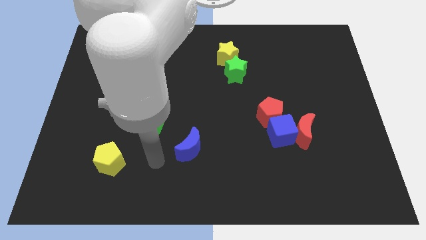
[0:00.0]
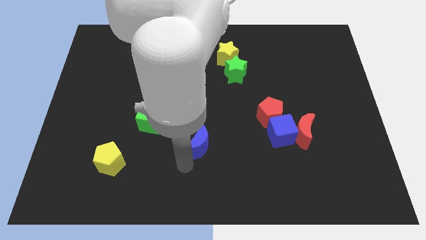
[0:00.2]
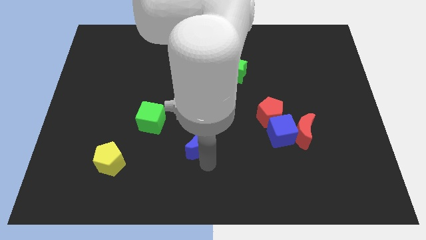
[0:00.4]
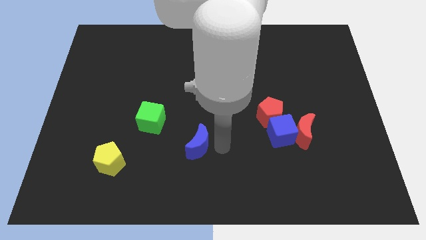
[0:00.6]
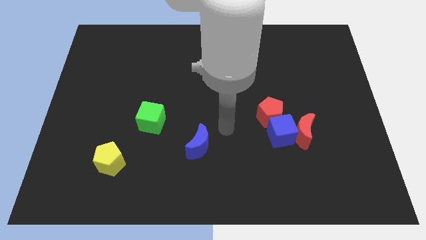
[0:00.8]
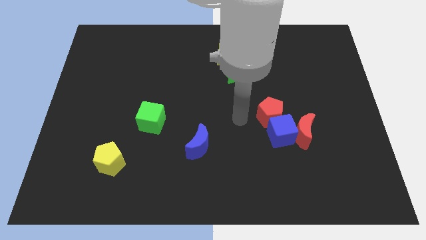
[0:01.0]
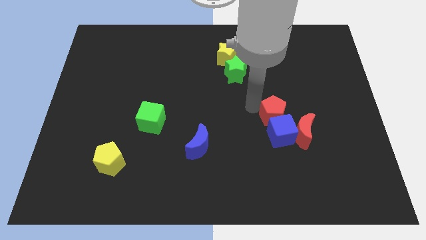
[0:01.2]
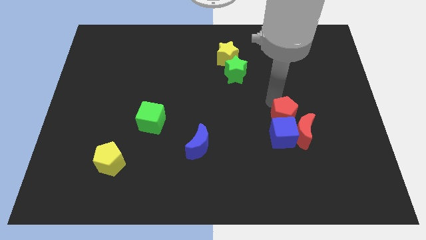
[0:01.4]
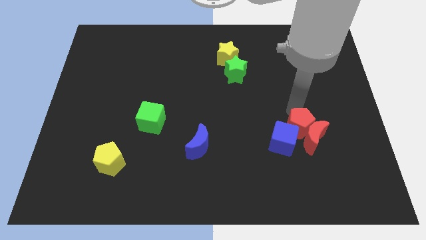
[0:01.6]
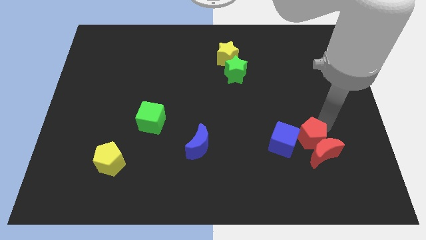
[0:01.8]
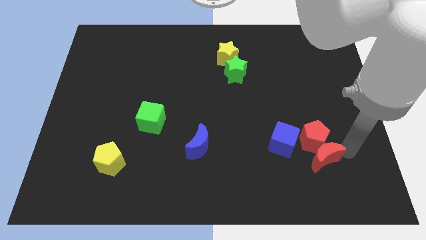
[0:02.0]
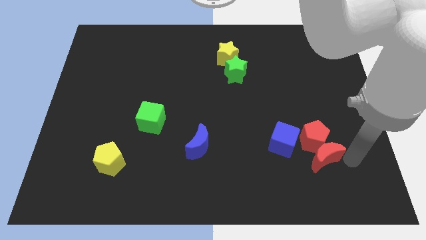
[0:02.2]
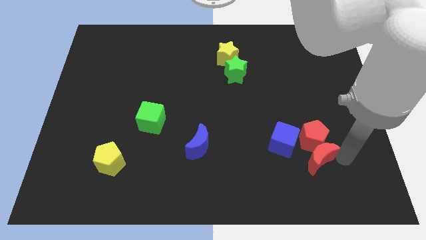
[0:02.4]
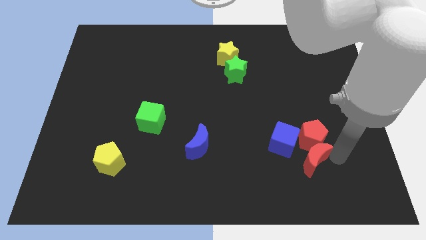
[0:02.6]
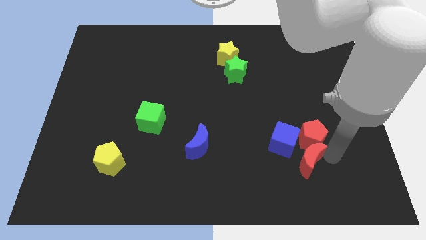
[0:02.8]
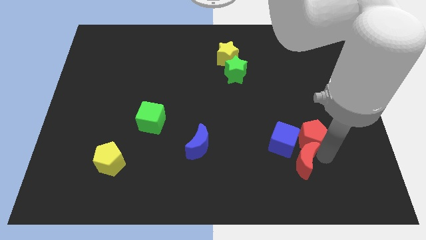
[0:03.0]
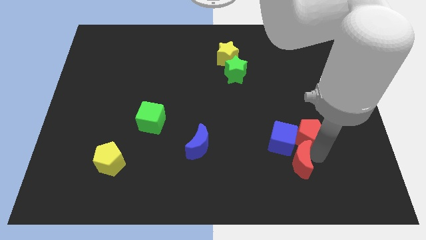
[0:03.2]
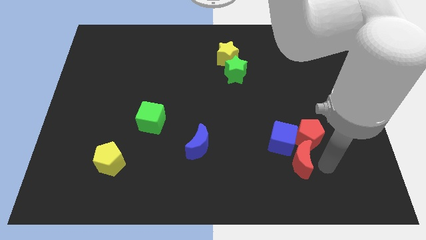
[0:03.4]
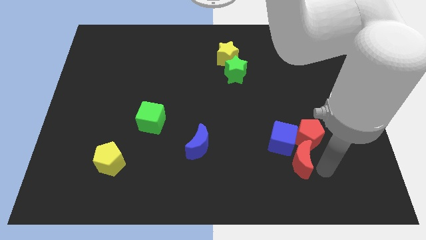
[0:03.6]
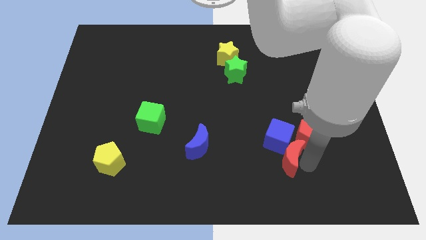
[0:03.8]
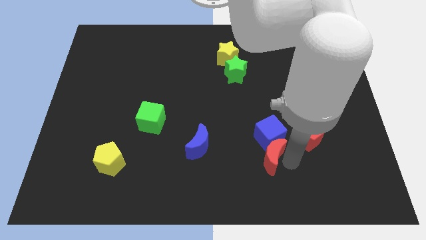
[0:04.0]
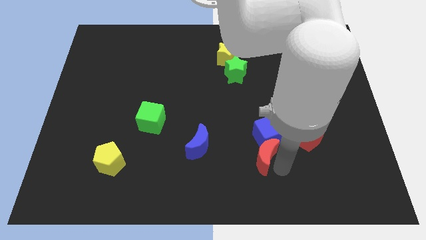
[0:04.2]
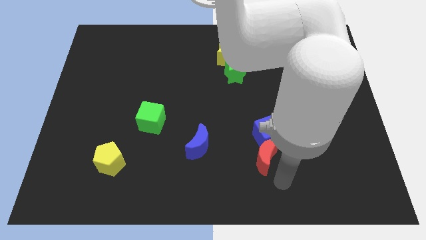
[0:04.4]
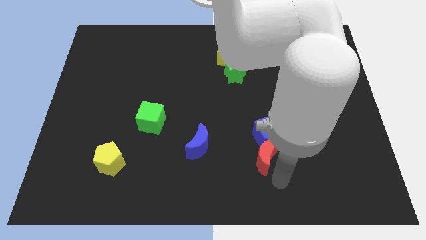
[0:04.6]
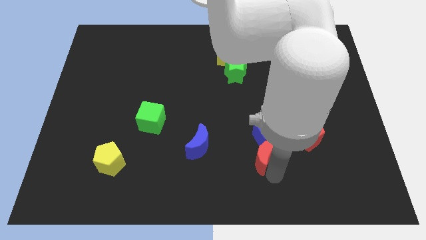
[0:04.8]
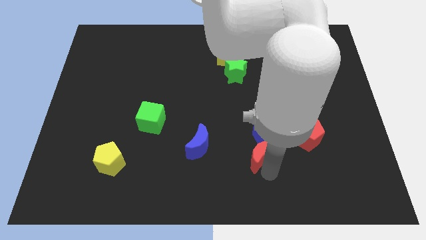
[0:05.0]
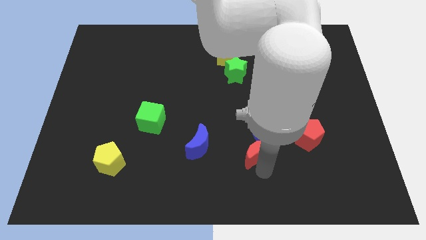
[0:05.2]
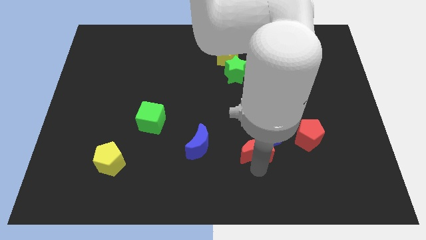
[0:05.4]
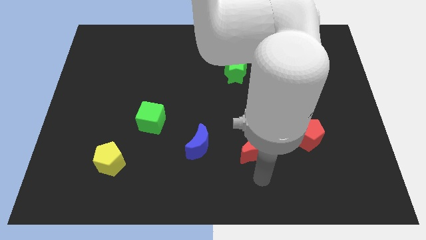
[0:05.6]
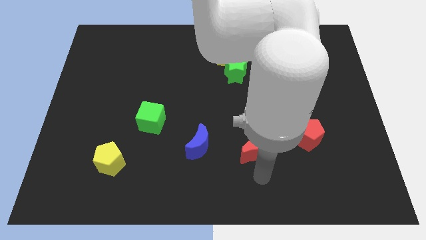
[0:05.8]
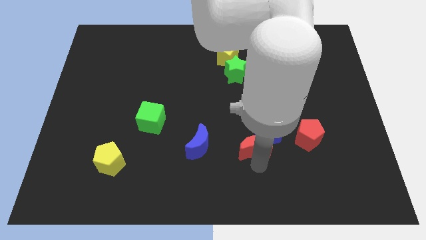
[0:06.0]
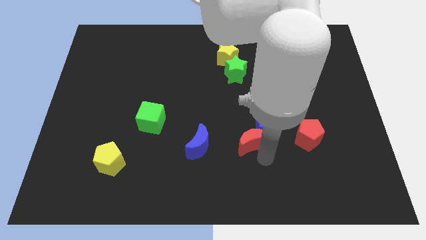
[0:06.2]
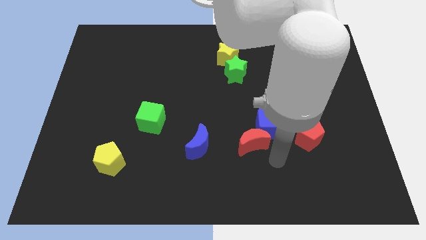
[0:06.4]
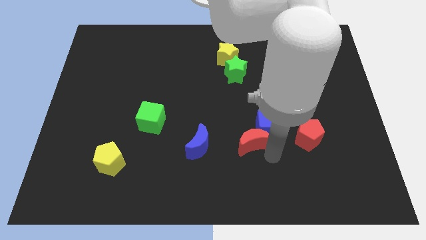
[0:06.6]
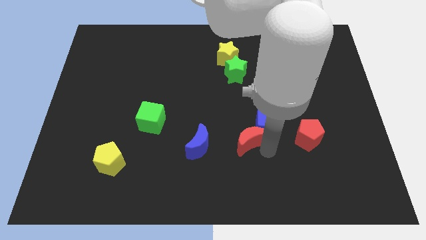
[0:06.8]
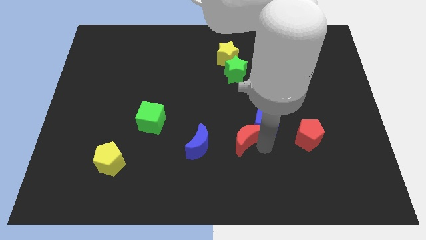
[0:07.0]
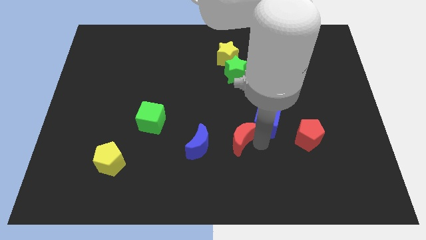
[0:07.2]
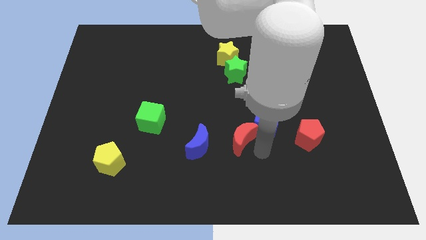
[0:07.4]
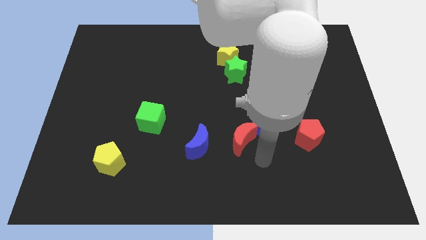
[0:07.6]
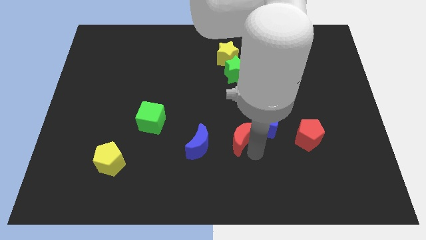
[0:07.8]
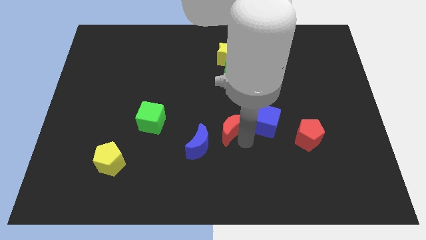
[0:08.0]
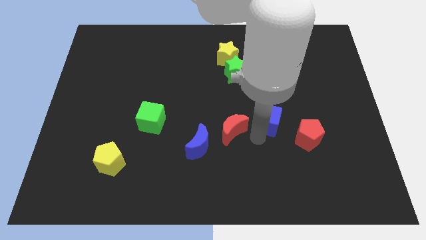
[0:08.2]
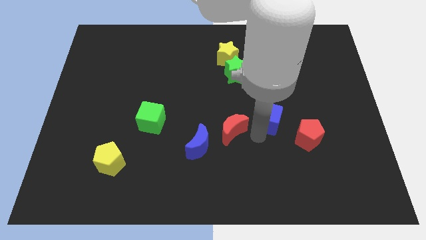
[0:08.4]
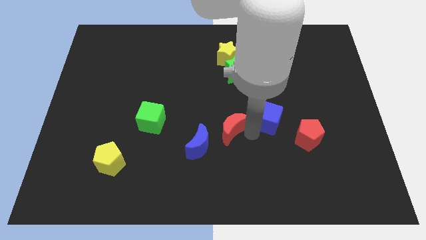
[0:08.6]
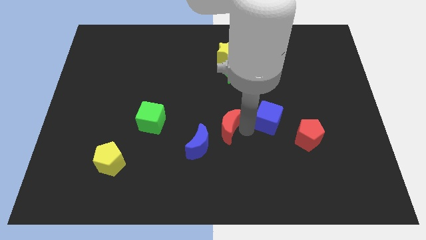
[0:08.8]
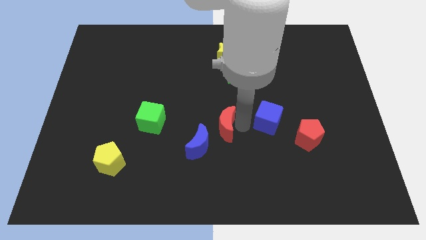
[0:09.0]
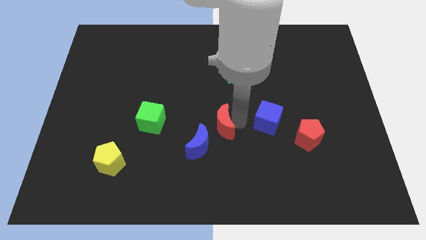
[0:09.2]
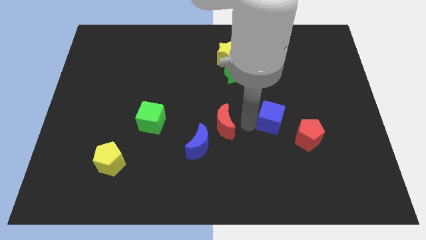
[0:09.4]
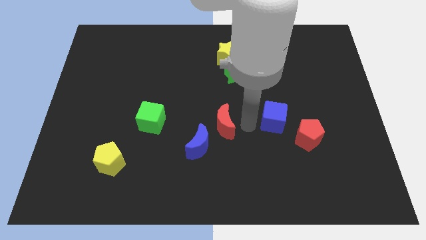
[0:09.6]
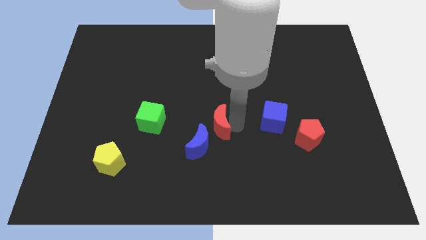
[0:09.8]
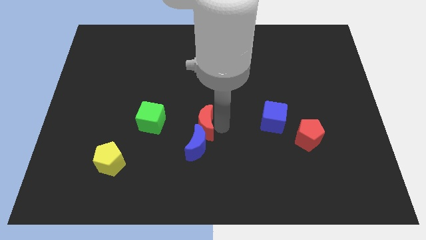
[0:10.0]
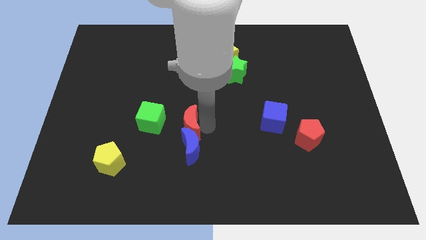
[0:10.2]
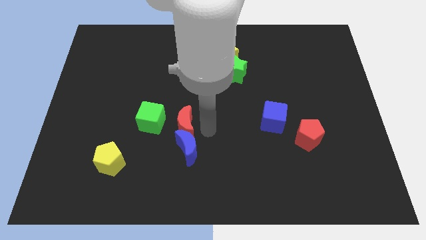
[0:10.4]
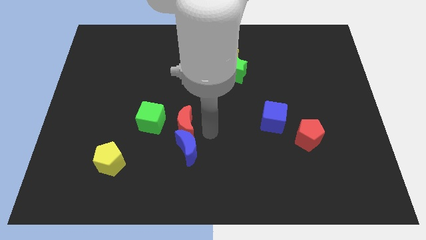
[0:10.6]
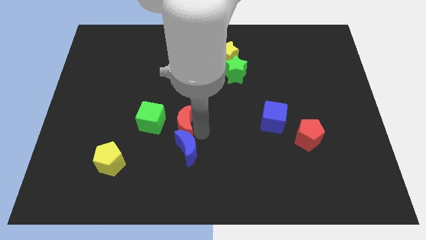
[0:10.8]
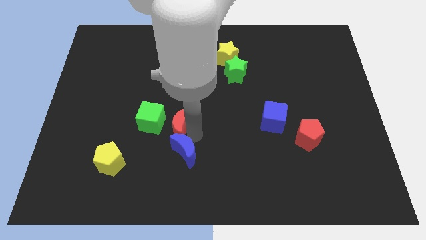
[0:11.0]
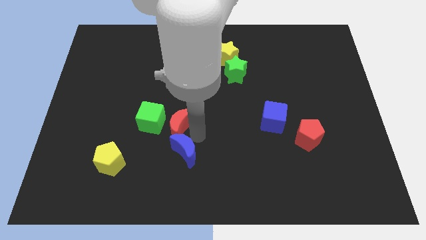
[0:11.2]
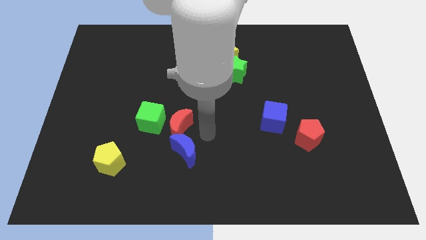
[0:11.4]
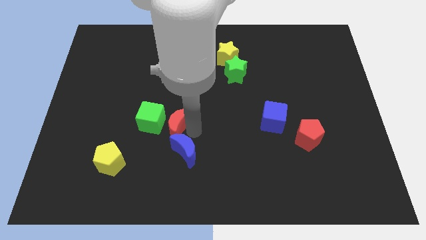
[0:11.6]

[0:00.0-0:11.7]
push the red moon towards the green cube

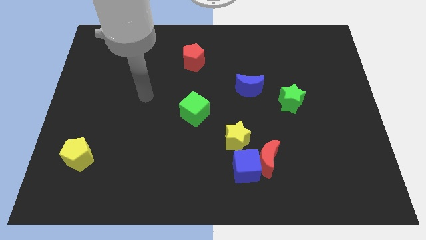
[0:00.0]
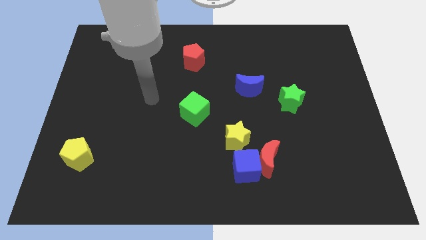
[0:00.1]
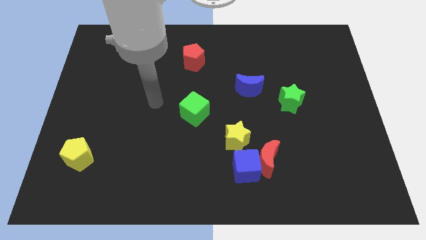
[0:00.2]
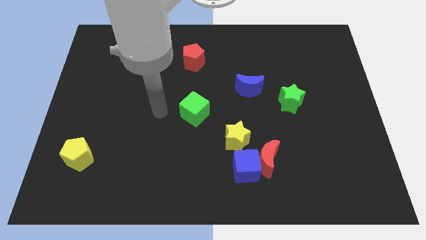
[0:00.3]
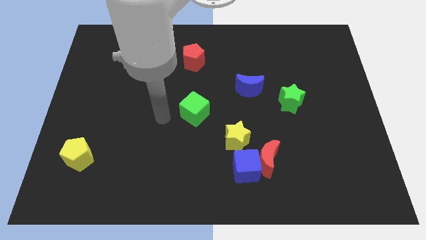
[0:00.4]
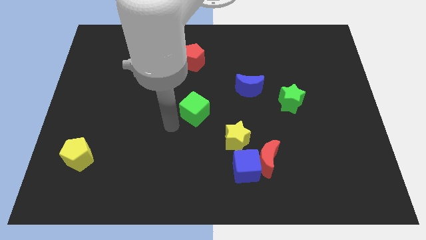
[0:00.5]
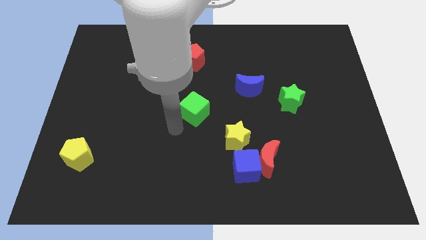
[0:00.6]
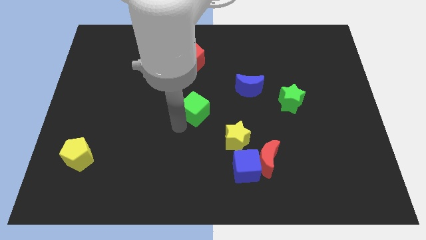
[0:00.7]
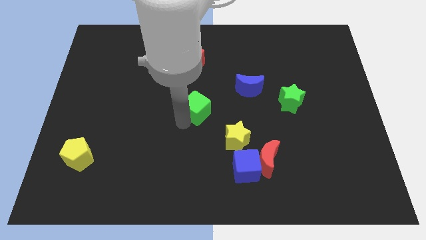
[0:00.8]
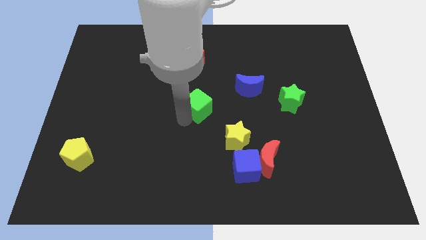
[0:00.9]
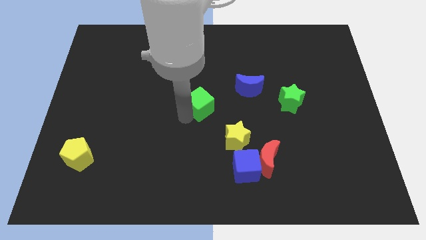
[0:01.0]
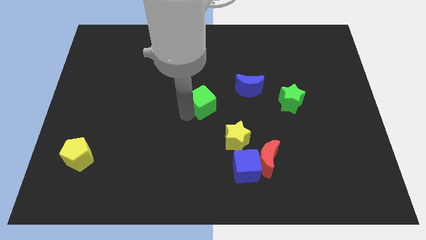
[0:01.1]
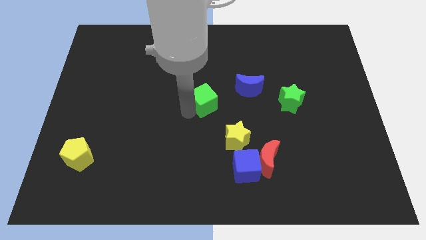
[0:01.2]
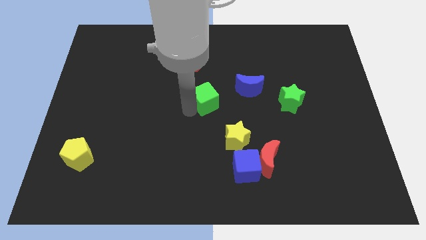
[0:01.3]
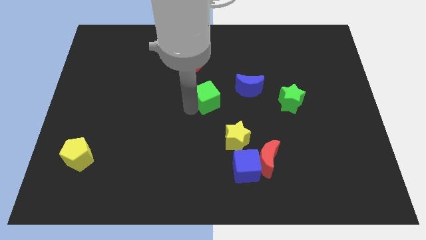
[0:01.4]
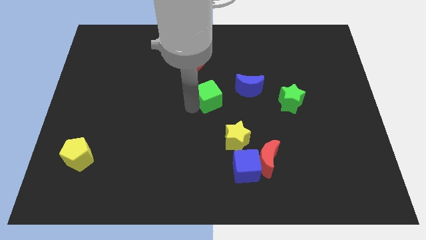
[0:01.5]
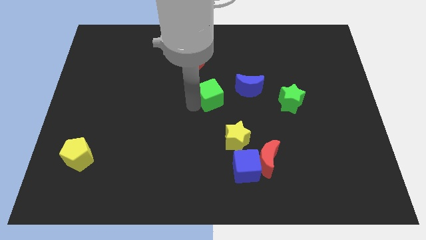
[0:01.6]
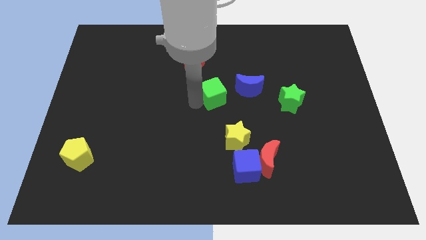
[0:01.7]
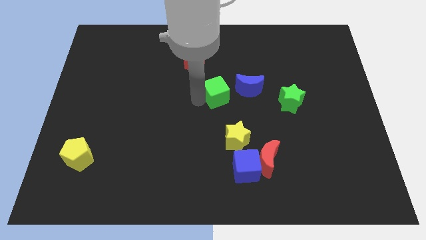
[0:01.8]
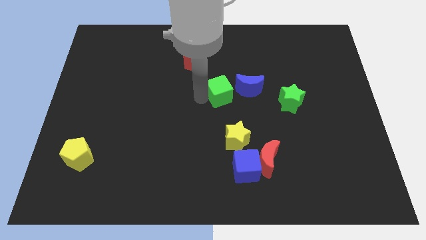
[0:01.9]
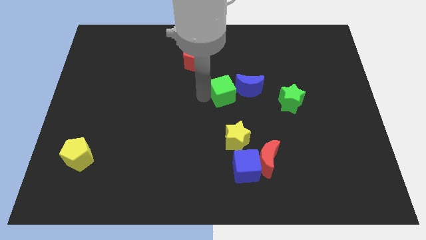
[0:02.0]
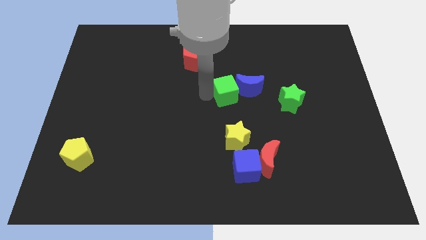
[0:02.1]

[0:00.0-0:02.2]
push the green cube next to the blue moon
